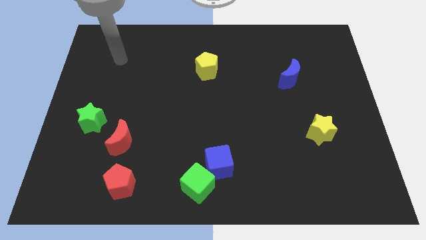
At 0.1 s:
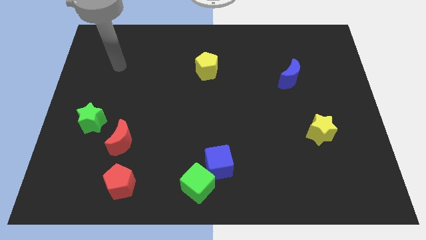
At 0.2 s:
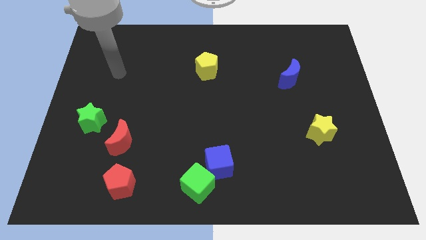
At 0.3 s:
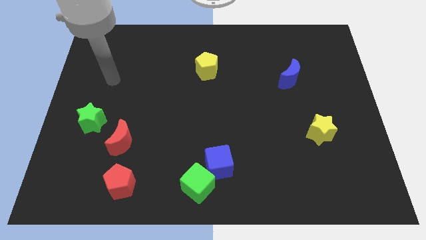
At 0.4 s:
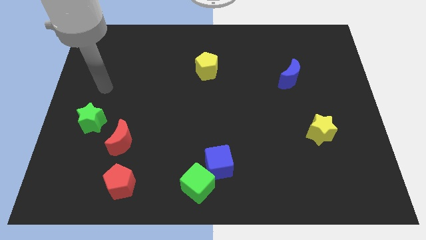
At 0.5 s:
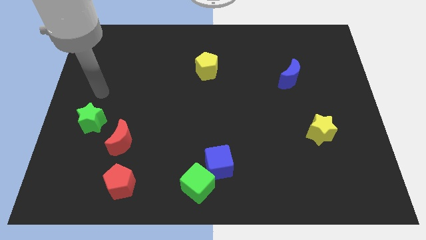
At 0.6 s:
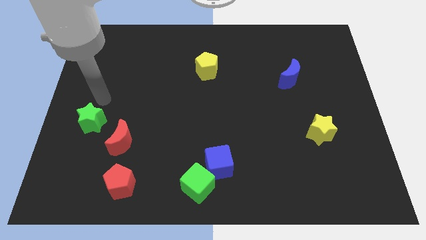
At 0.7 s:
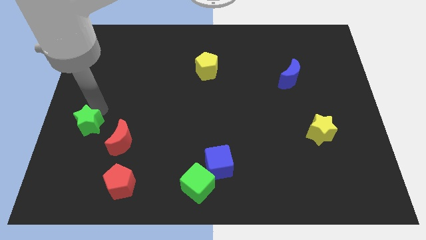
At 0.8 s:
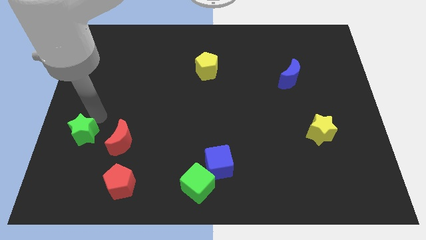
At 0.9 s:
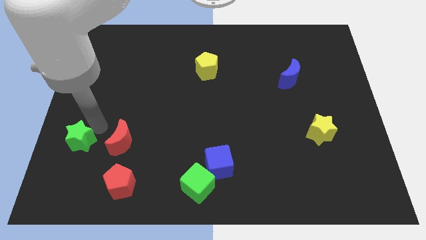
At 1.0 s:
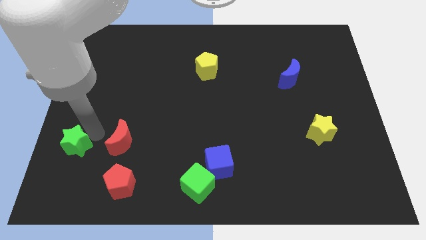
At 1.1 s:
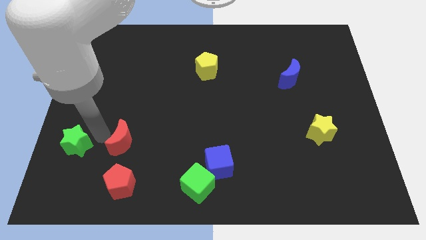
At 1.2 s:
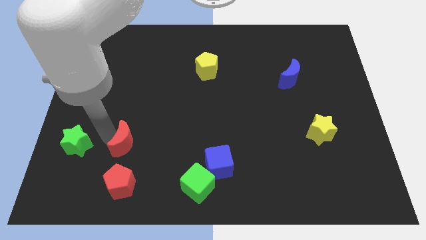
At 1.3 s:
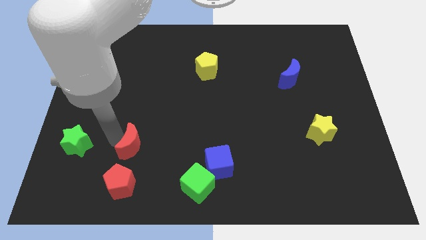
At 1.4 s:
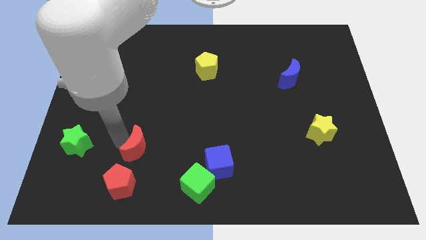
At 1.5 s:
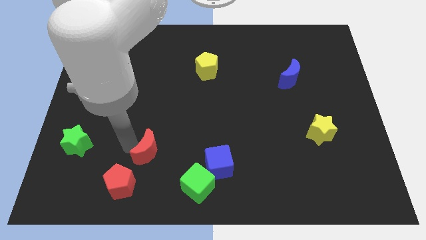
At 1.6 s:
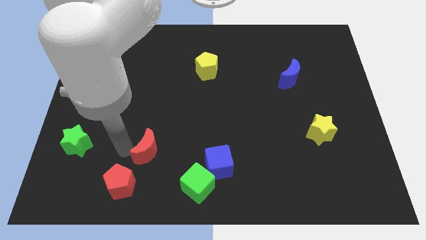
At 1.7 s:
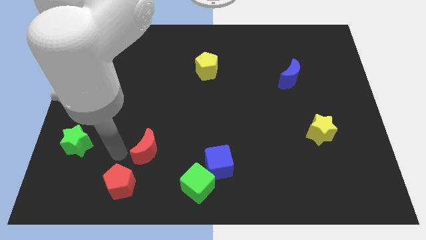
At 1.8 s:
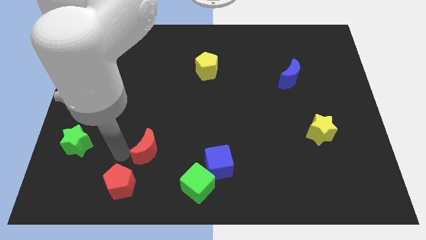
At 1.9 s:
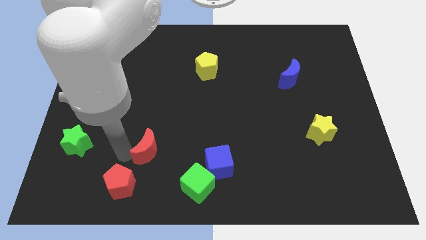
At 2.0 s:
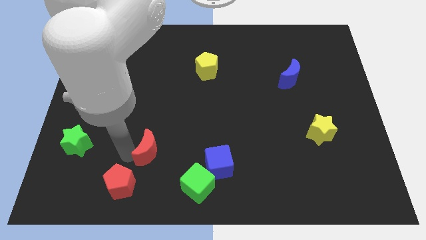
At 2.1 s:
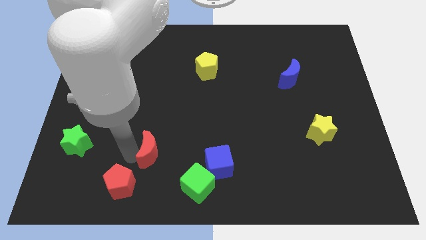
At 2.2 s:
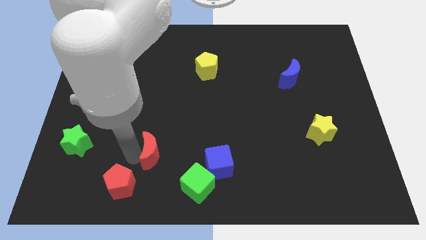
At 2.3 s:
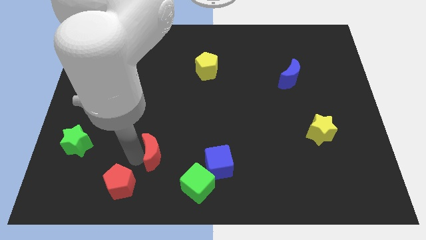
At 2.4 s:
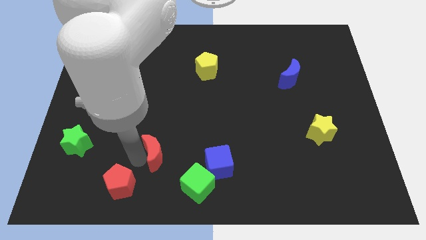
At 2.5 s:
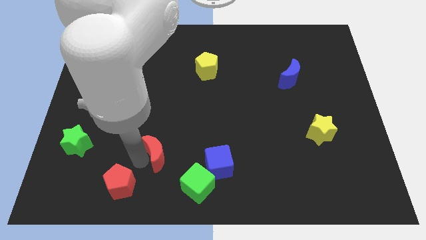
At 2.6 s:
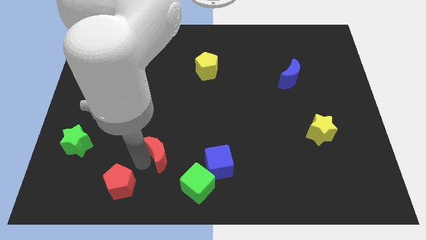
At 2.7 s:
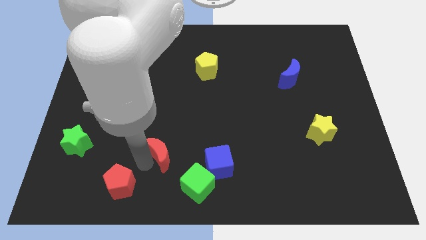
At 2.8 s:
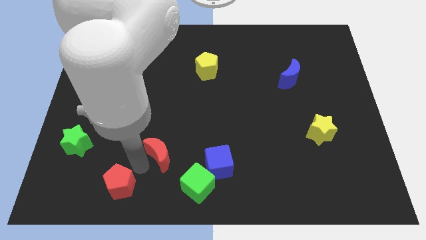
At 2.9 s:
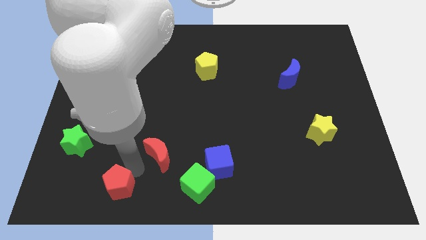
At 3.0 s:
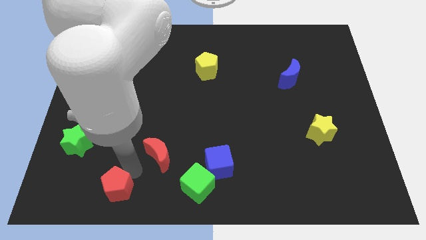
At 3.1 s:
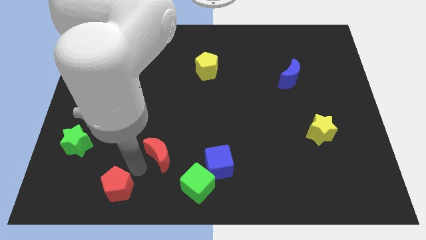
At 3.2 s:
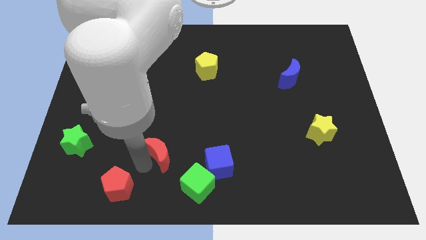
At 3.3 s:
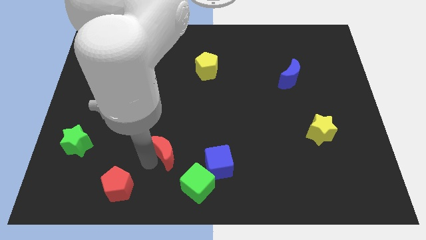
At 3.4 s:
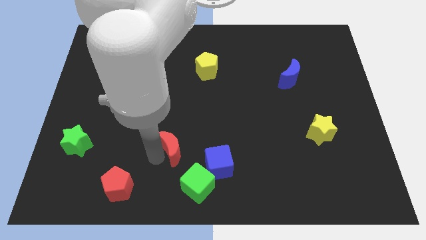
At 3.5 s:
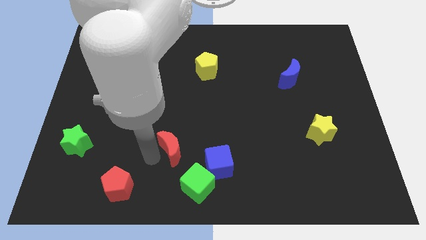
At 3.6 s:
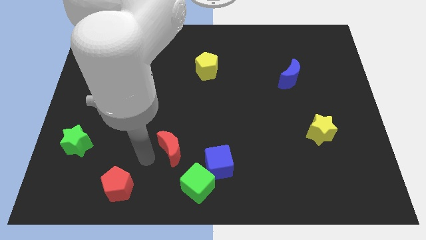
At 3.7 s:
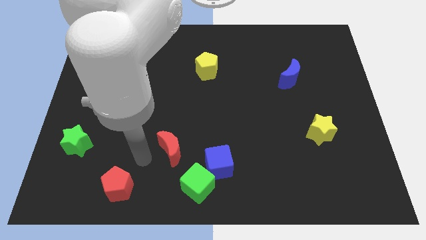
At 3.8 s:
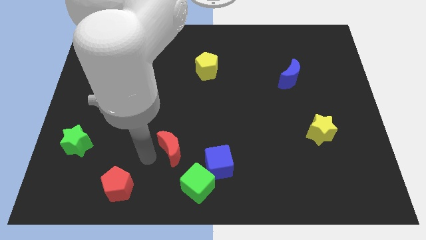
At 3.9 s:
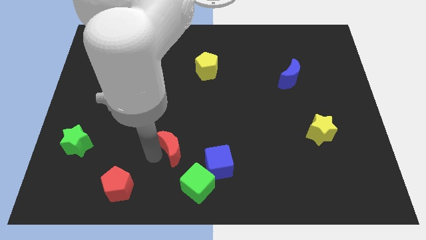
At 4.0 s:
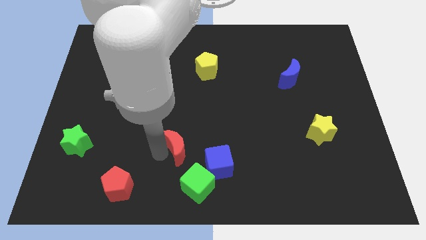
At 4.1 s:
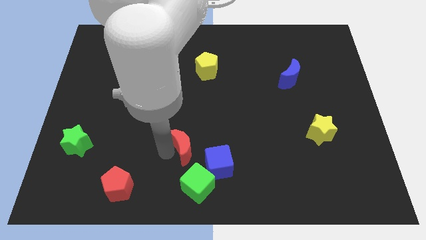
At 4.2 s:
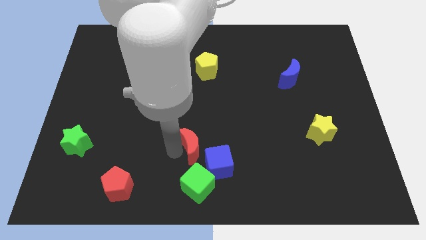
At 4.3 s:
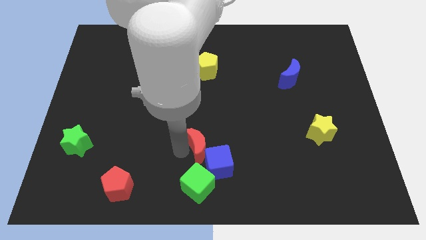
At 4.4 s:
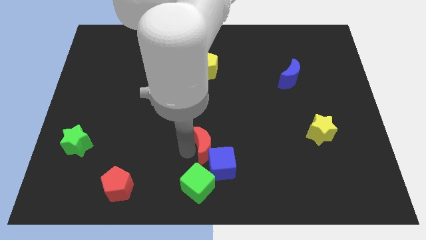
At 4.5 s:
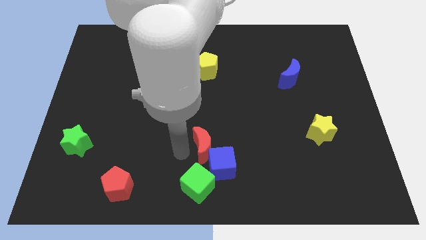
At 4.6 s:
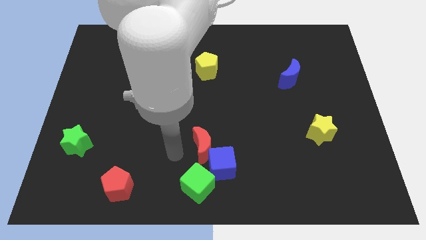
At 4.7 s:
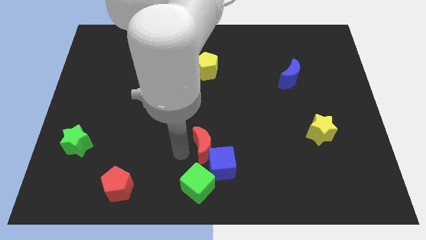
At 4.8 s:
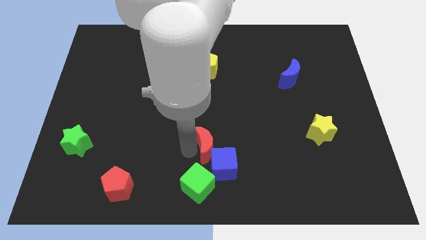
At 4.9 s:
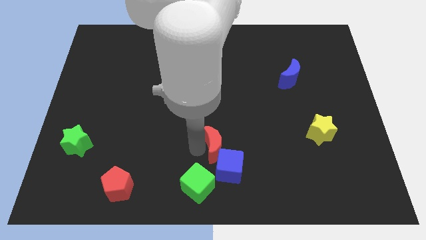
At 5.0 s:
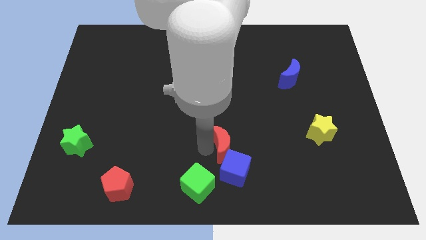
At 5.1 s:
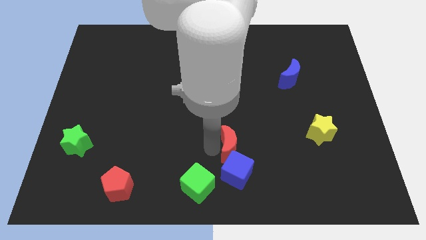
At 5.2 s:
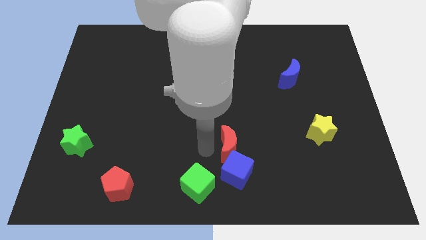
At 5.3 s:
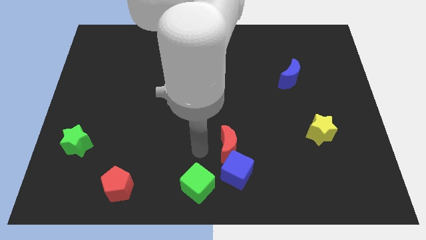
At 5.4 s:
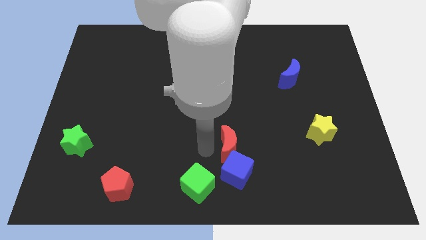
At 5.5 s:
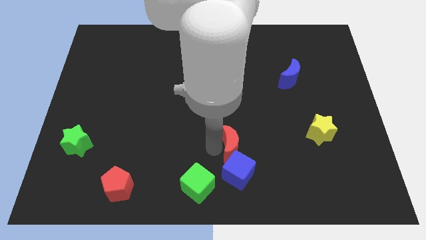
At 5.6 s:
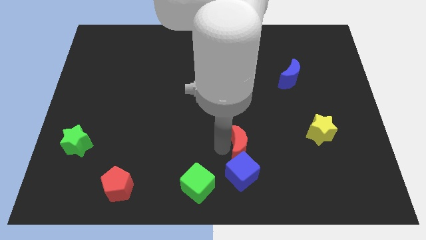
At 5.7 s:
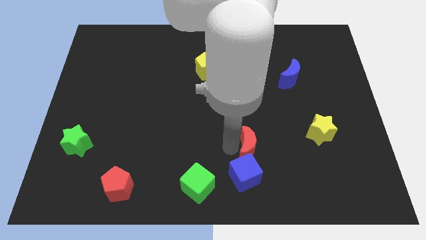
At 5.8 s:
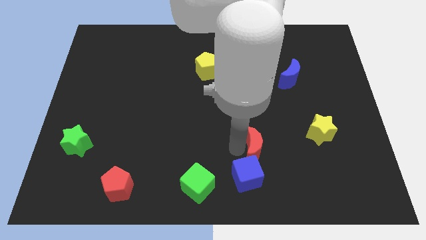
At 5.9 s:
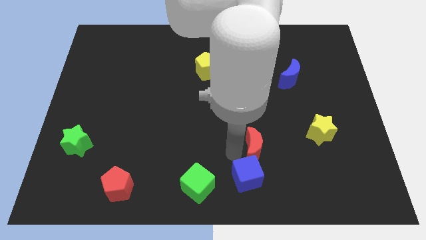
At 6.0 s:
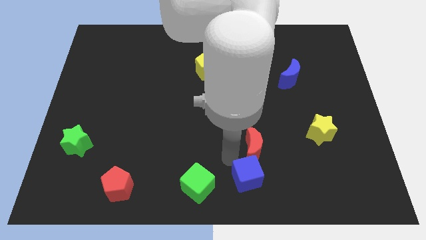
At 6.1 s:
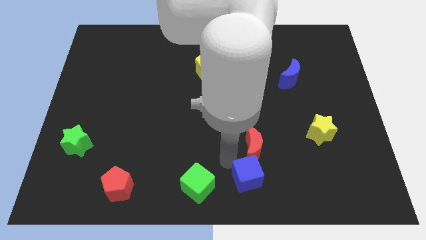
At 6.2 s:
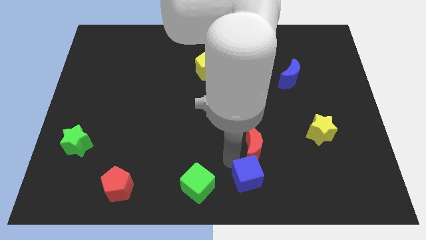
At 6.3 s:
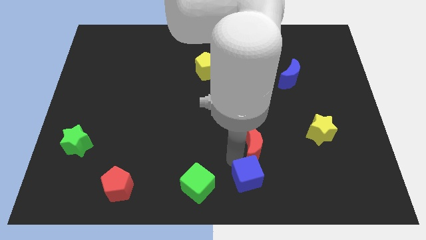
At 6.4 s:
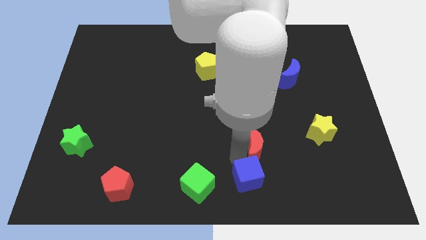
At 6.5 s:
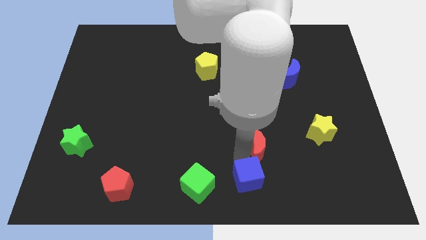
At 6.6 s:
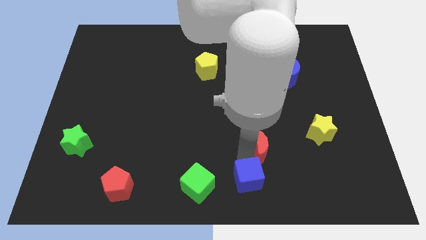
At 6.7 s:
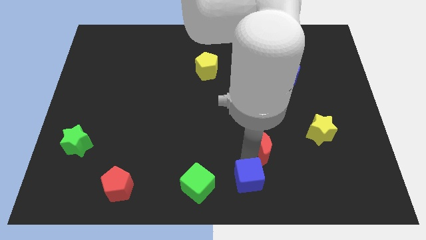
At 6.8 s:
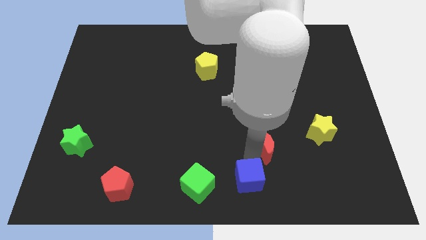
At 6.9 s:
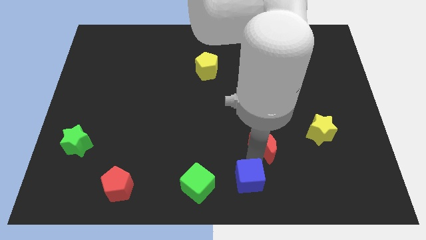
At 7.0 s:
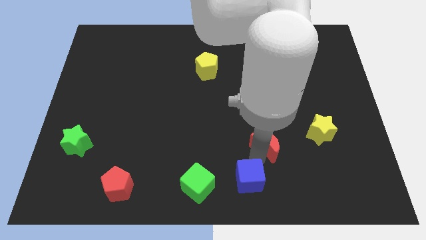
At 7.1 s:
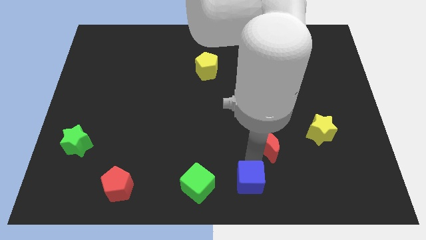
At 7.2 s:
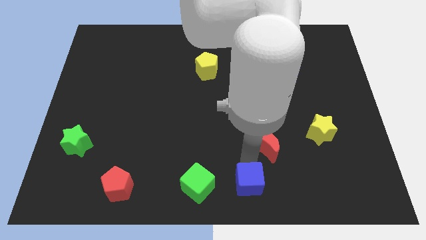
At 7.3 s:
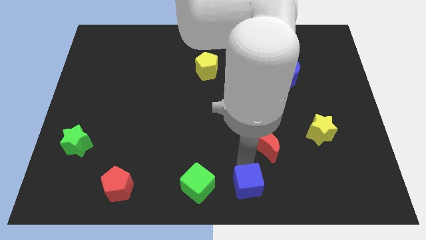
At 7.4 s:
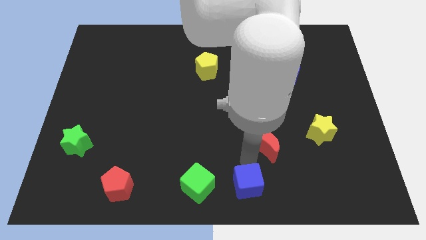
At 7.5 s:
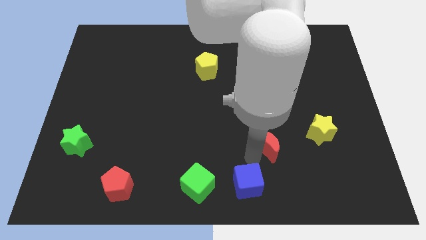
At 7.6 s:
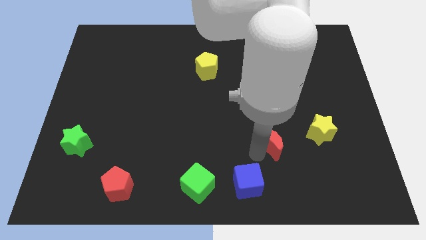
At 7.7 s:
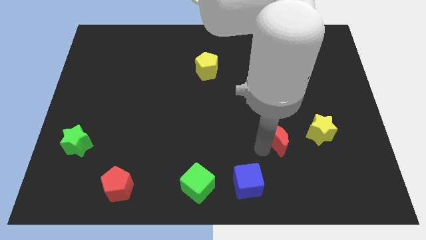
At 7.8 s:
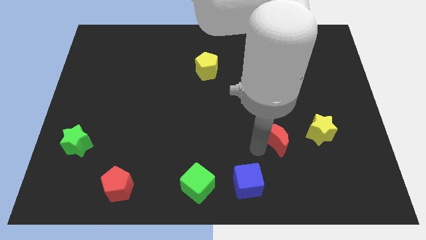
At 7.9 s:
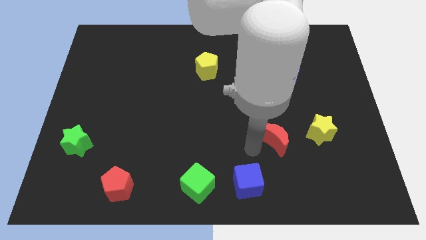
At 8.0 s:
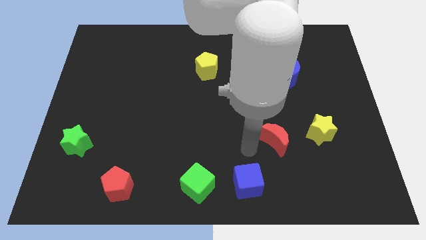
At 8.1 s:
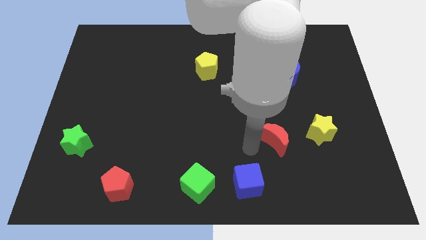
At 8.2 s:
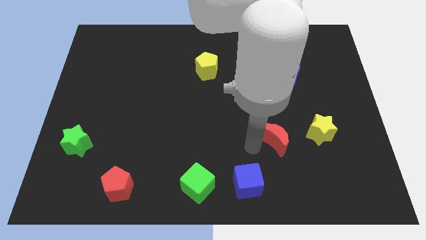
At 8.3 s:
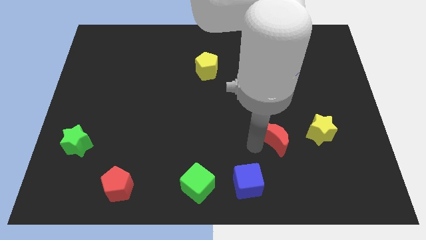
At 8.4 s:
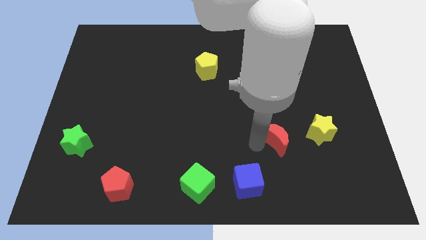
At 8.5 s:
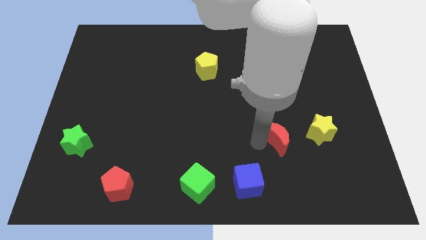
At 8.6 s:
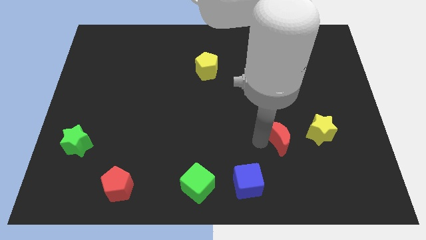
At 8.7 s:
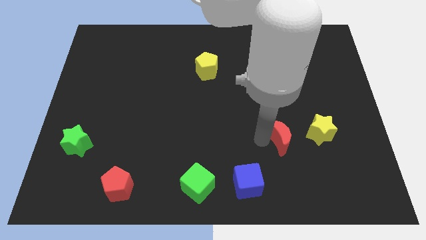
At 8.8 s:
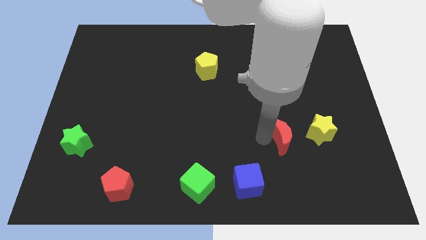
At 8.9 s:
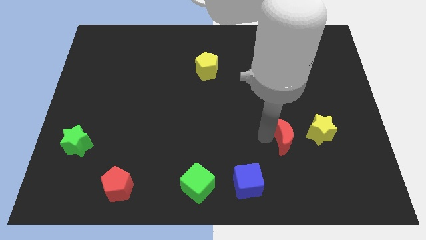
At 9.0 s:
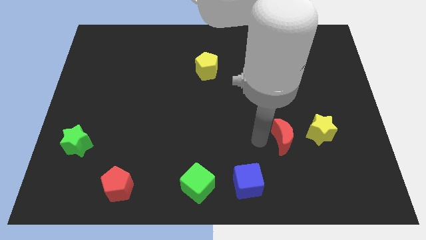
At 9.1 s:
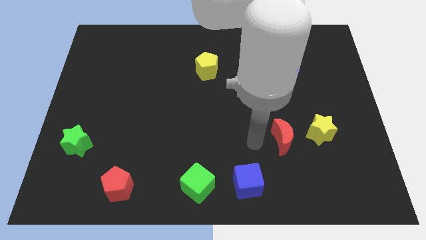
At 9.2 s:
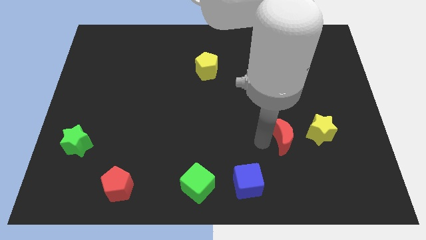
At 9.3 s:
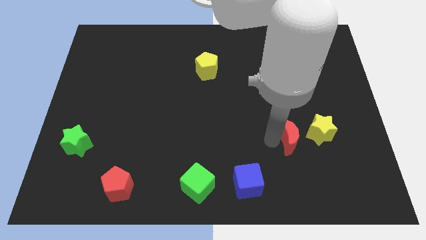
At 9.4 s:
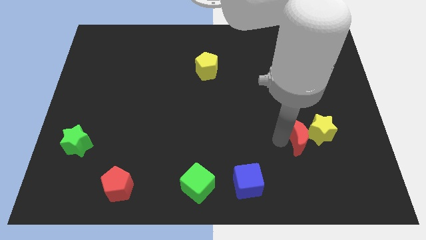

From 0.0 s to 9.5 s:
move the red moon next to the yellow star
